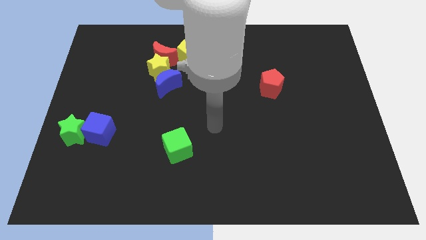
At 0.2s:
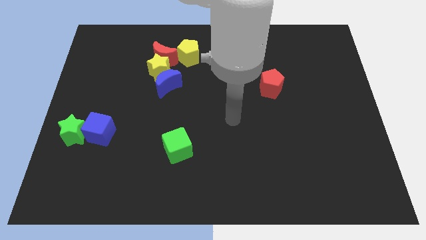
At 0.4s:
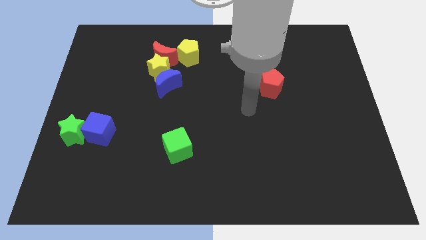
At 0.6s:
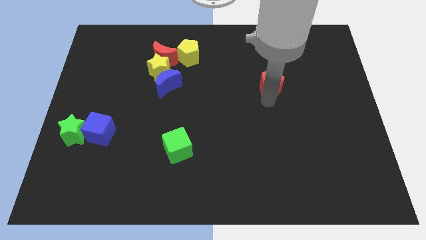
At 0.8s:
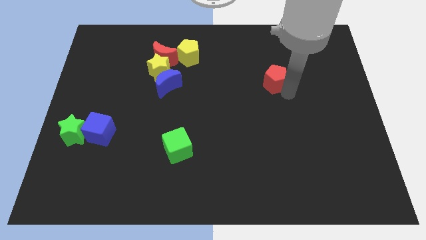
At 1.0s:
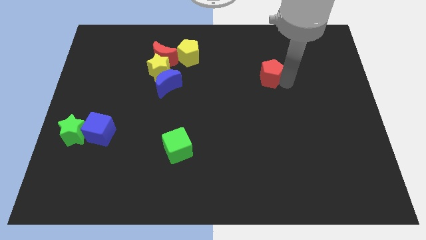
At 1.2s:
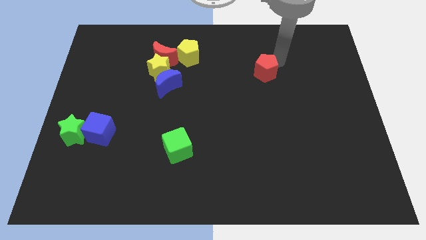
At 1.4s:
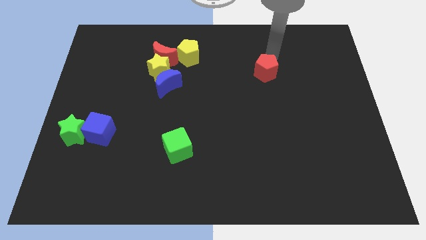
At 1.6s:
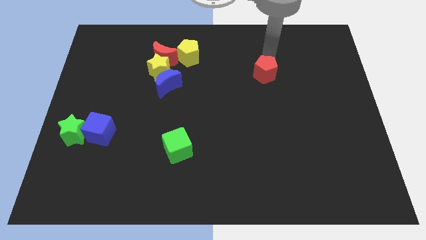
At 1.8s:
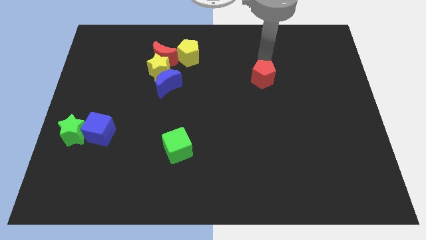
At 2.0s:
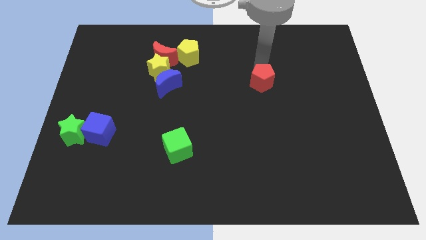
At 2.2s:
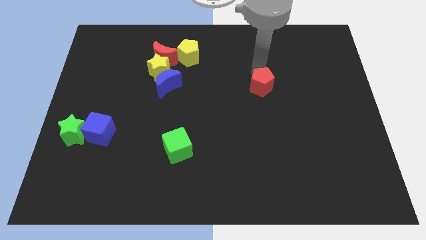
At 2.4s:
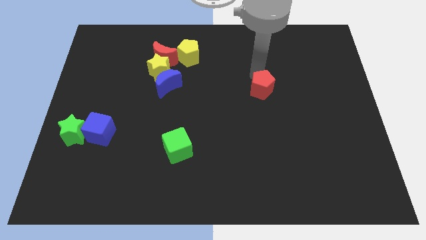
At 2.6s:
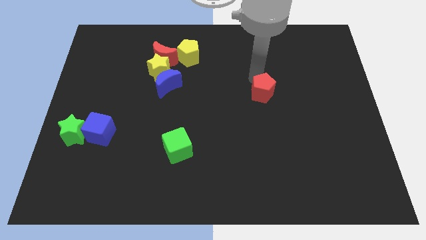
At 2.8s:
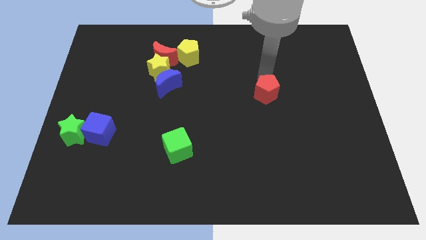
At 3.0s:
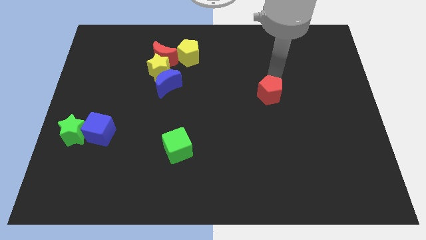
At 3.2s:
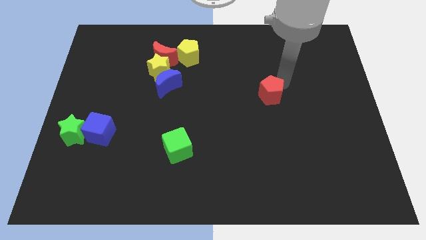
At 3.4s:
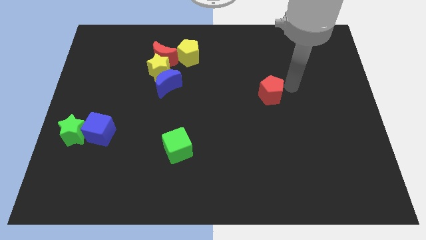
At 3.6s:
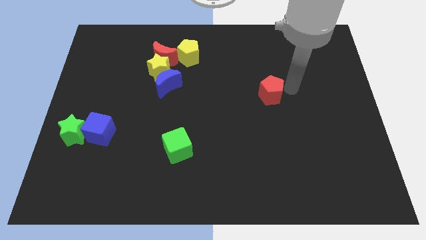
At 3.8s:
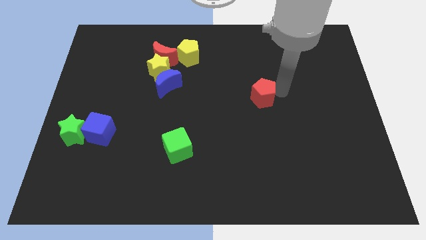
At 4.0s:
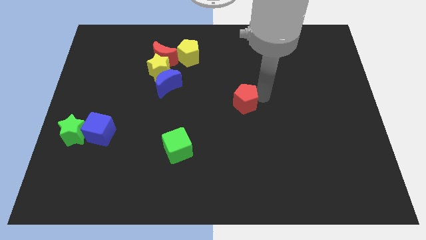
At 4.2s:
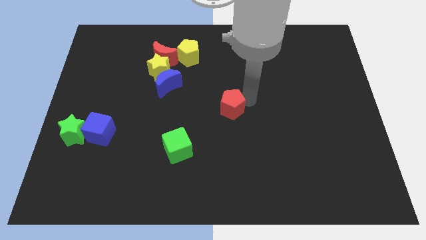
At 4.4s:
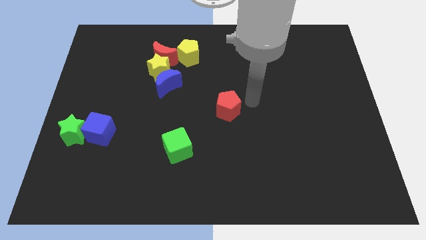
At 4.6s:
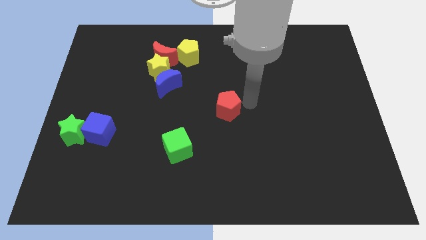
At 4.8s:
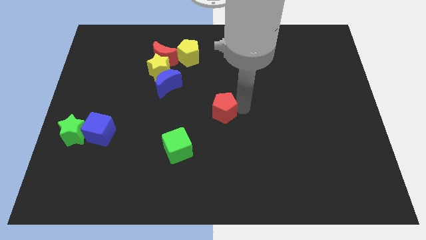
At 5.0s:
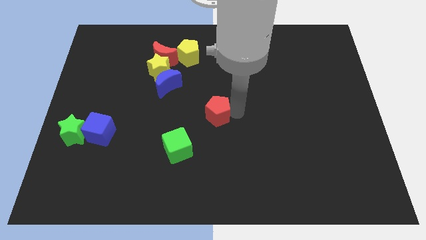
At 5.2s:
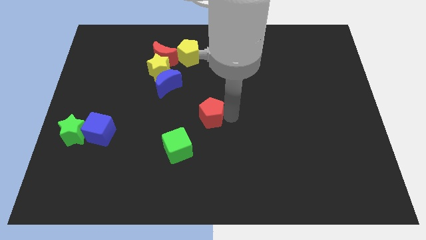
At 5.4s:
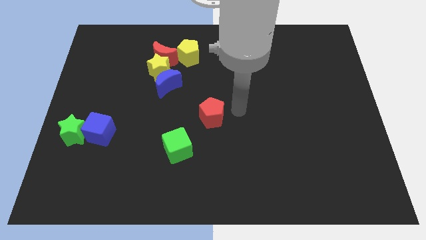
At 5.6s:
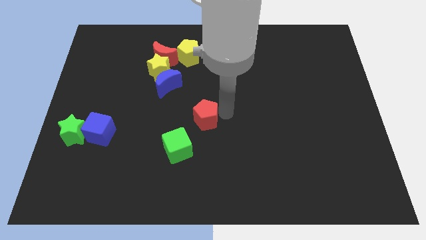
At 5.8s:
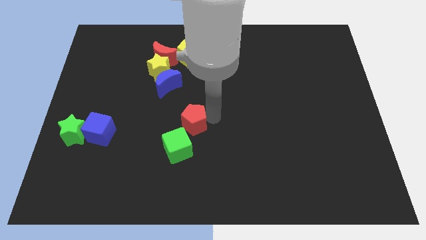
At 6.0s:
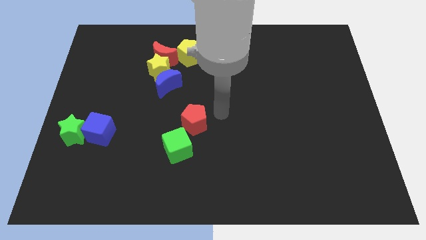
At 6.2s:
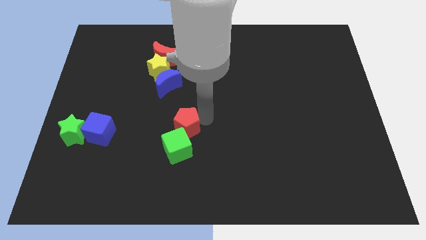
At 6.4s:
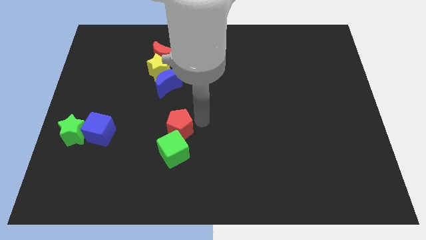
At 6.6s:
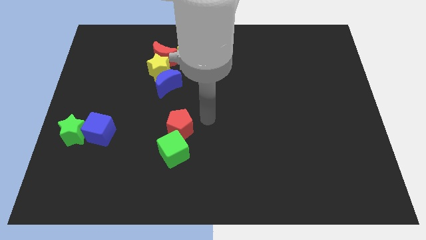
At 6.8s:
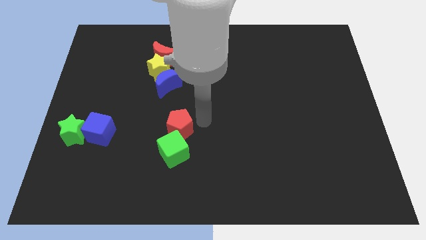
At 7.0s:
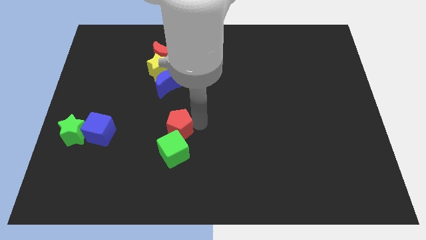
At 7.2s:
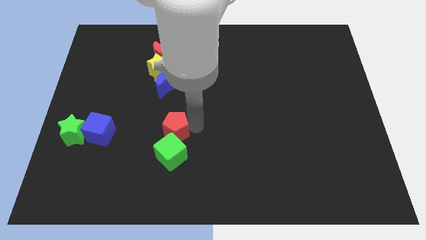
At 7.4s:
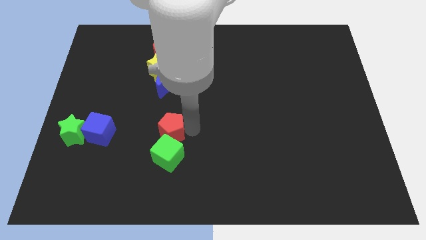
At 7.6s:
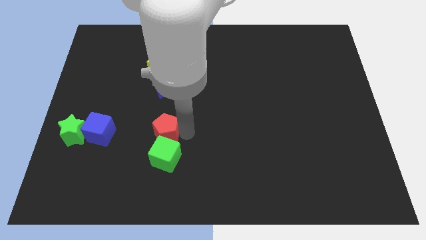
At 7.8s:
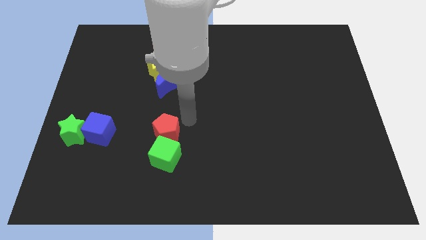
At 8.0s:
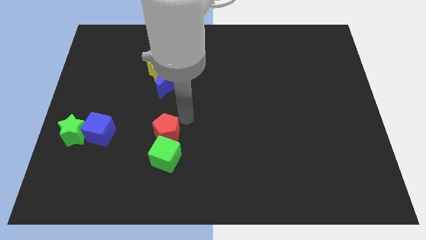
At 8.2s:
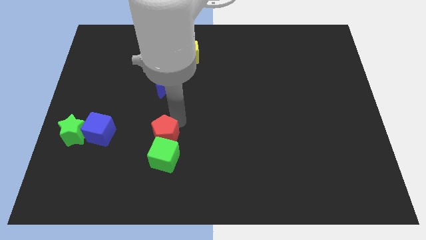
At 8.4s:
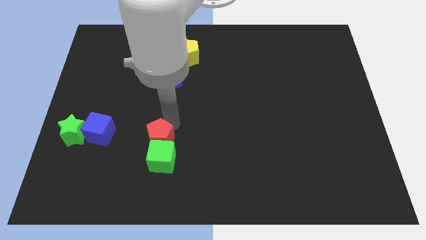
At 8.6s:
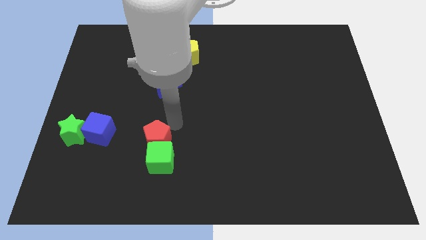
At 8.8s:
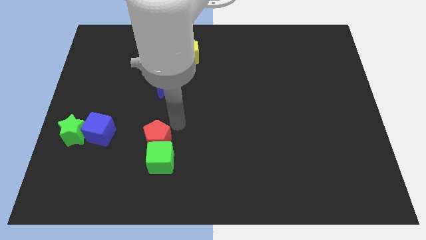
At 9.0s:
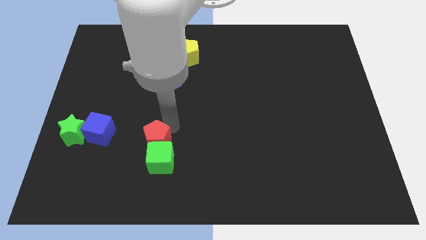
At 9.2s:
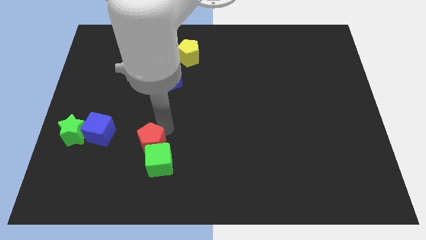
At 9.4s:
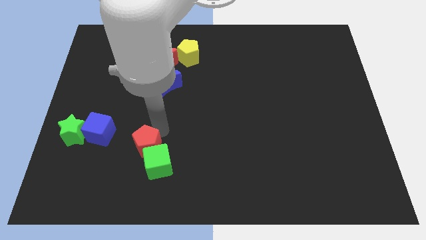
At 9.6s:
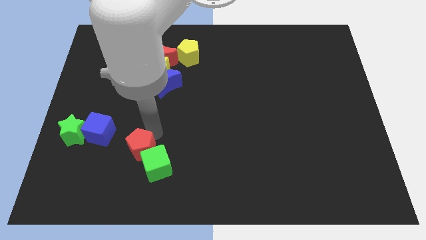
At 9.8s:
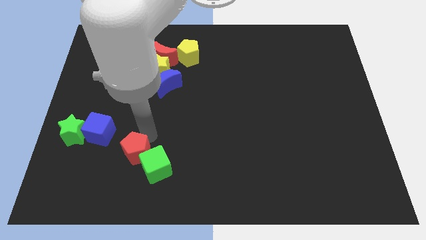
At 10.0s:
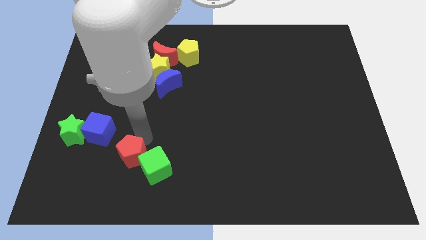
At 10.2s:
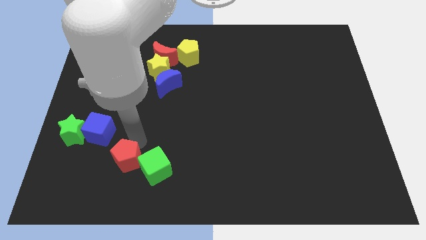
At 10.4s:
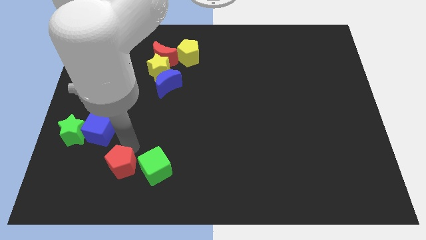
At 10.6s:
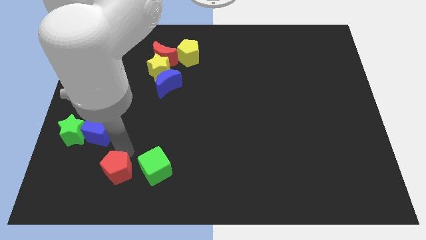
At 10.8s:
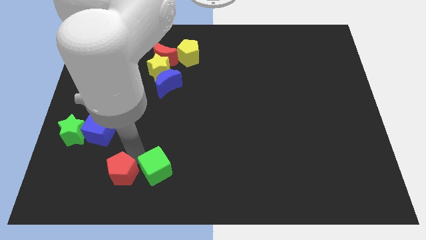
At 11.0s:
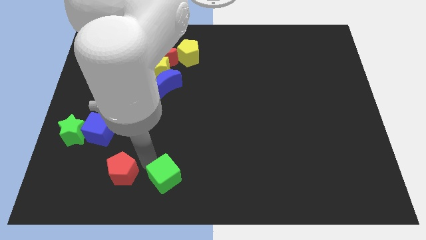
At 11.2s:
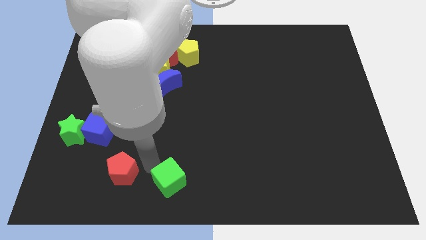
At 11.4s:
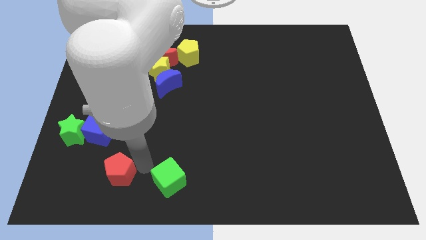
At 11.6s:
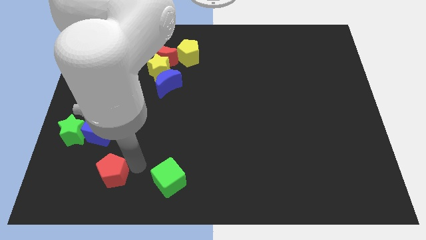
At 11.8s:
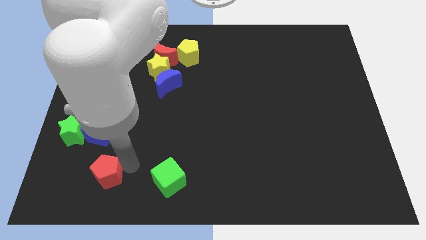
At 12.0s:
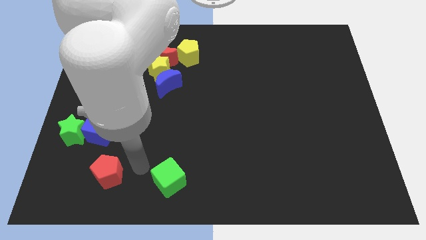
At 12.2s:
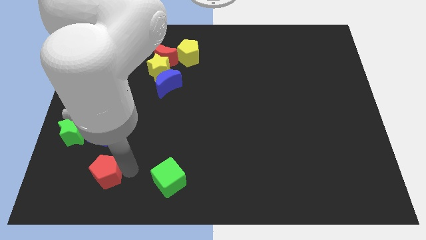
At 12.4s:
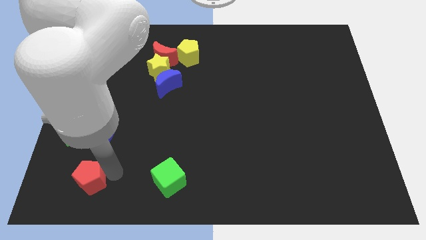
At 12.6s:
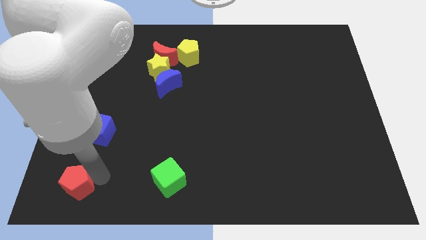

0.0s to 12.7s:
push the red pentagon to the bottom left of the board

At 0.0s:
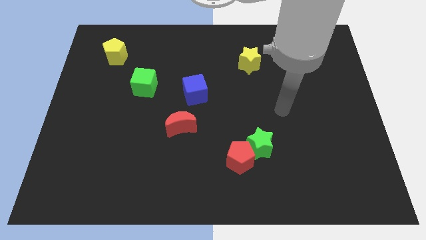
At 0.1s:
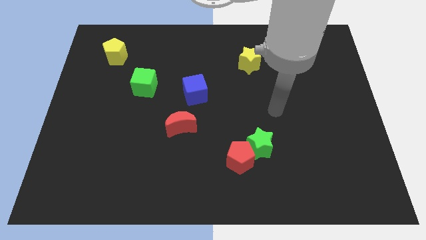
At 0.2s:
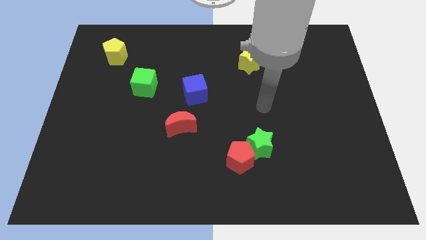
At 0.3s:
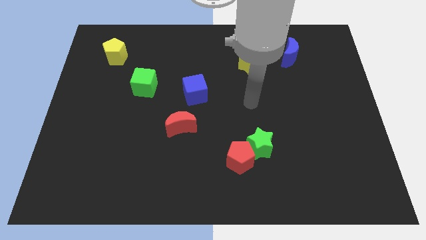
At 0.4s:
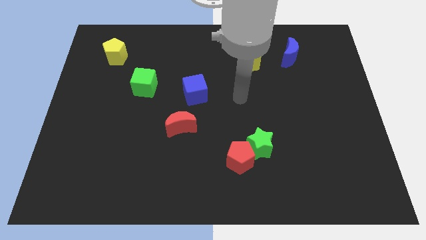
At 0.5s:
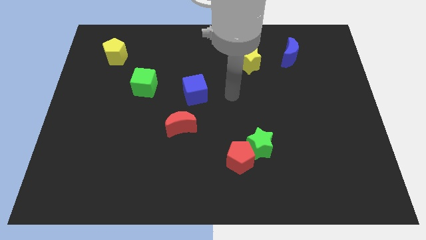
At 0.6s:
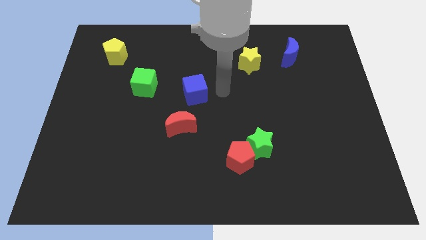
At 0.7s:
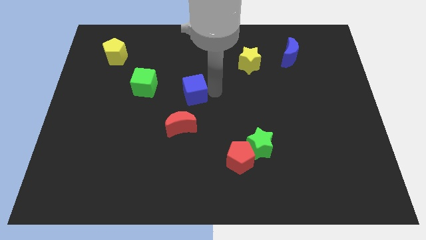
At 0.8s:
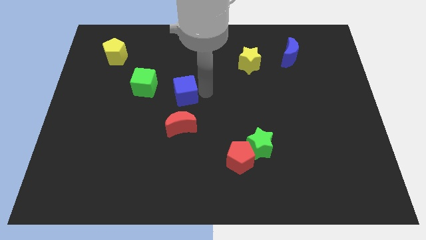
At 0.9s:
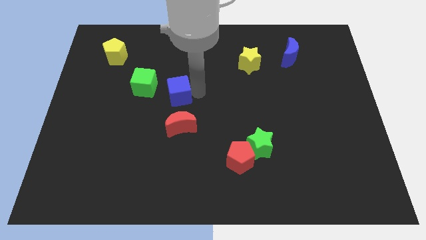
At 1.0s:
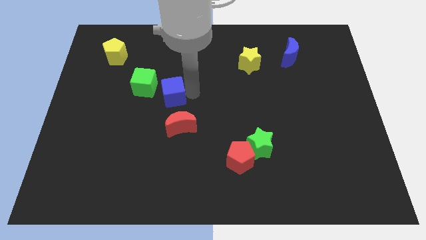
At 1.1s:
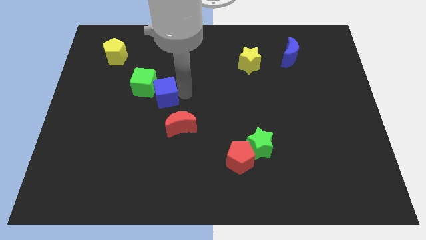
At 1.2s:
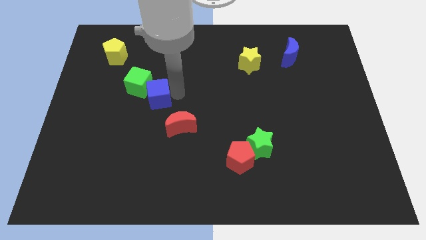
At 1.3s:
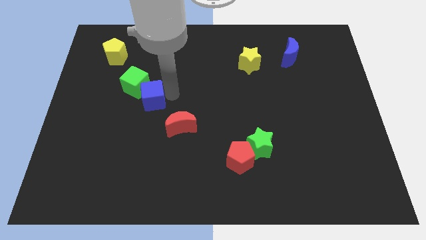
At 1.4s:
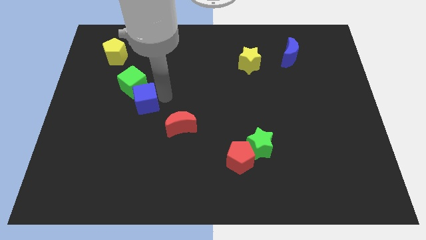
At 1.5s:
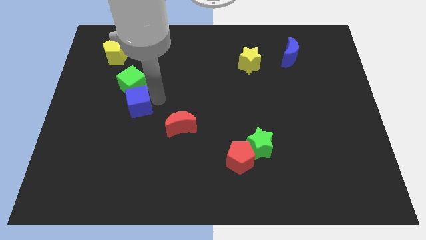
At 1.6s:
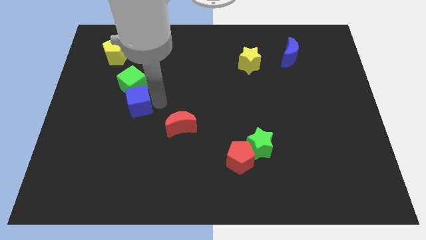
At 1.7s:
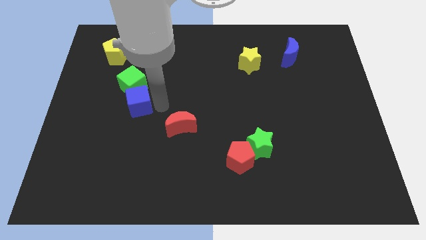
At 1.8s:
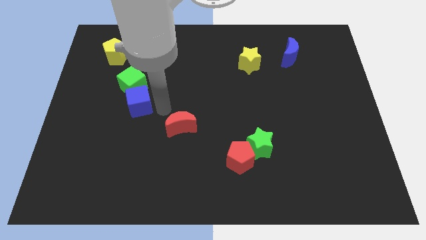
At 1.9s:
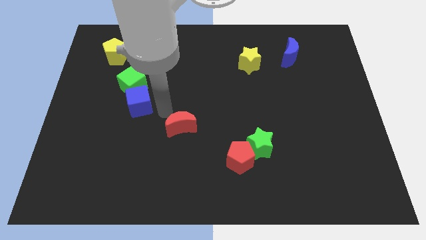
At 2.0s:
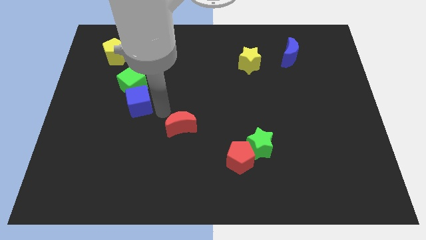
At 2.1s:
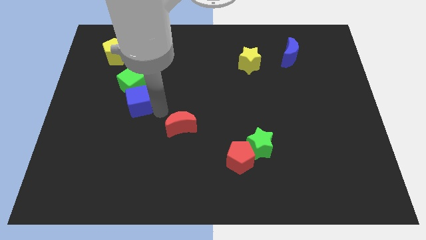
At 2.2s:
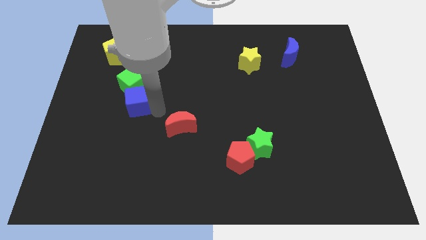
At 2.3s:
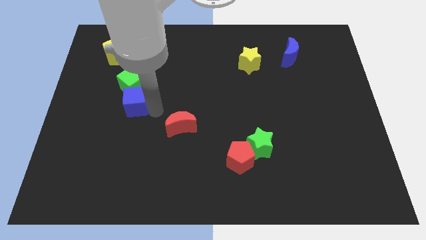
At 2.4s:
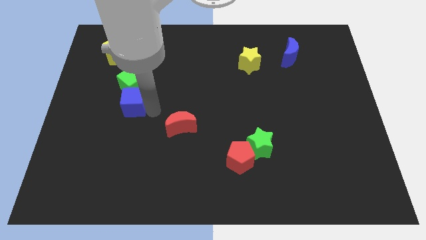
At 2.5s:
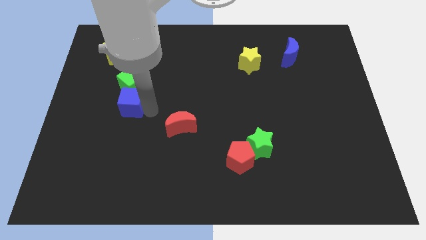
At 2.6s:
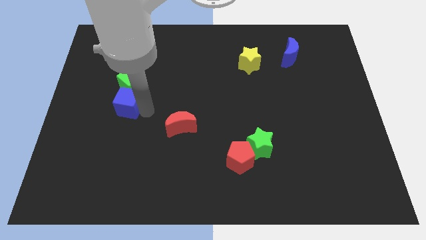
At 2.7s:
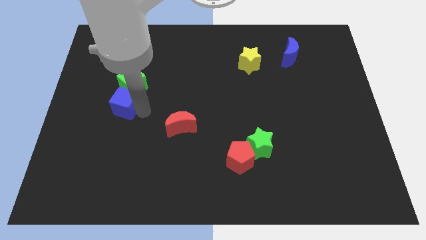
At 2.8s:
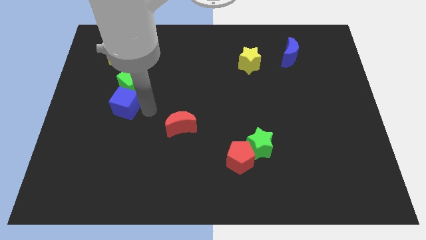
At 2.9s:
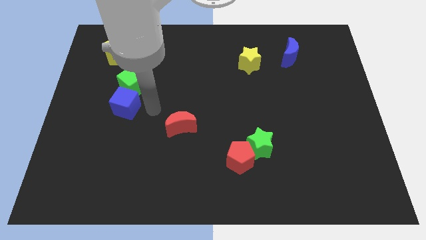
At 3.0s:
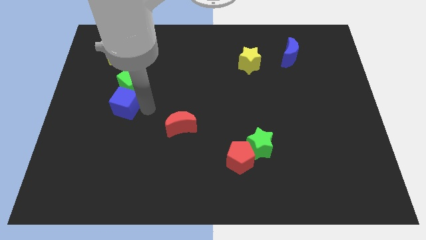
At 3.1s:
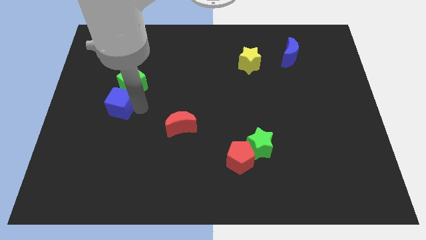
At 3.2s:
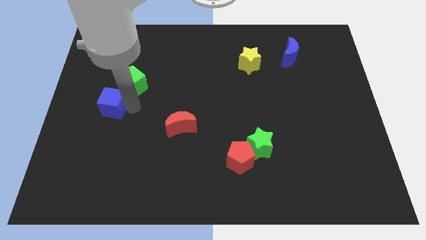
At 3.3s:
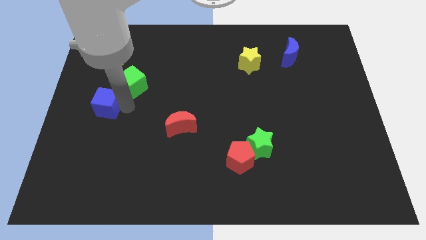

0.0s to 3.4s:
slide the blue cube to the center left
